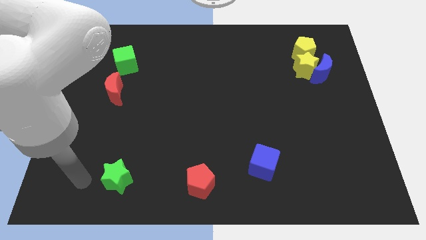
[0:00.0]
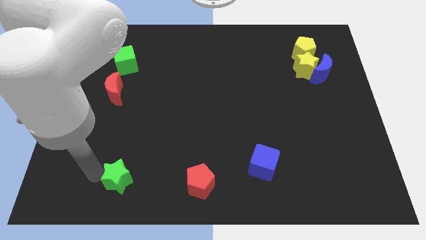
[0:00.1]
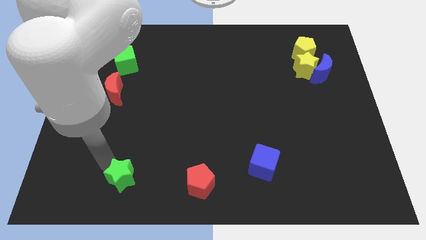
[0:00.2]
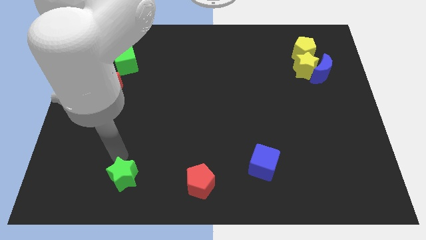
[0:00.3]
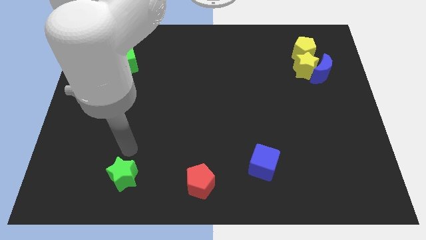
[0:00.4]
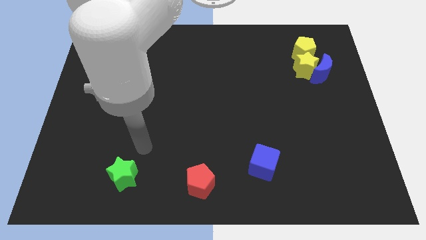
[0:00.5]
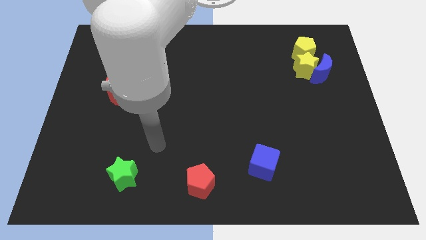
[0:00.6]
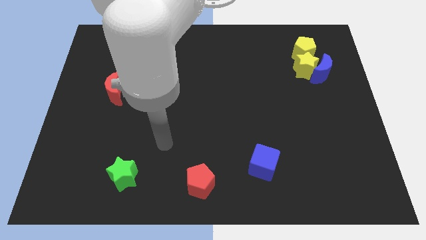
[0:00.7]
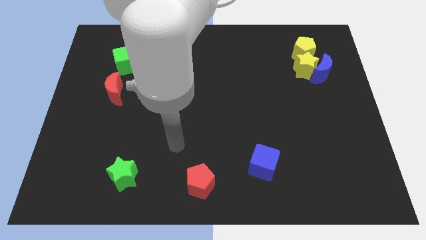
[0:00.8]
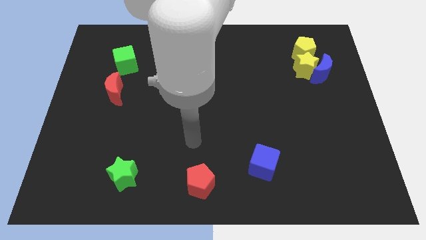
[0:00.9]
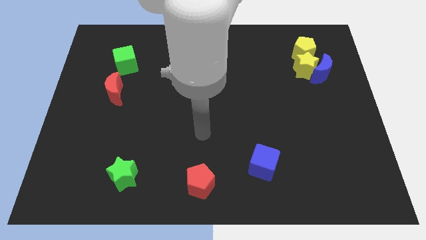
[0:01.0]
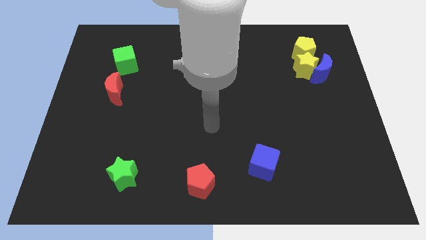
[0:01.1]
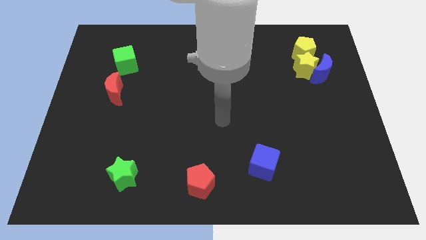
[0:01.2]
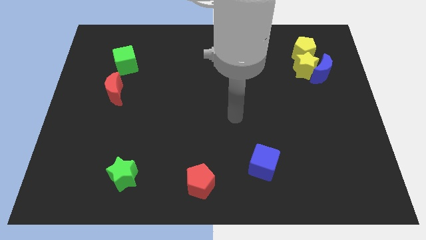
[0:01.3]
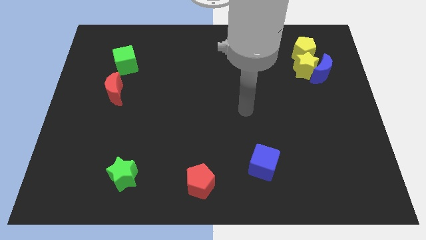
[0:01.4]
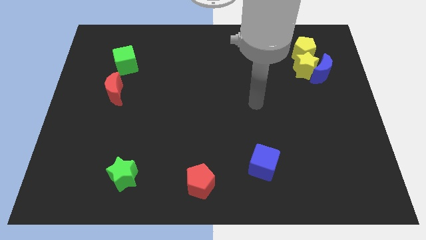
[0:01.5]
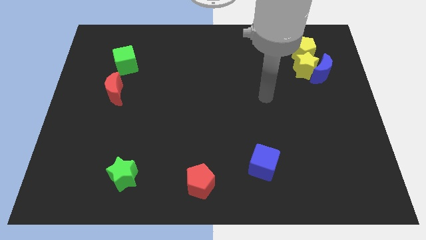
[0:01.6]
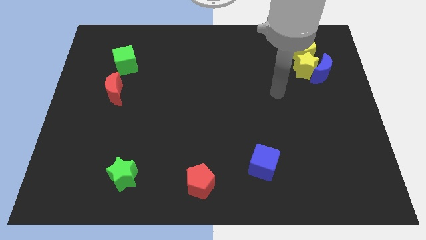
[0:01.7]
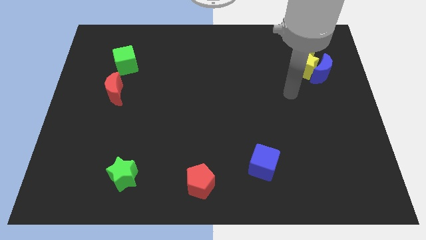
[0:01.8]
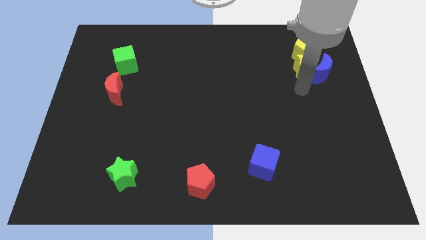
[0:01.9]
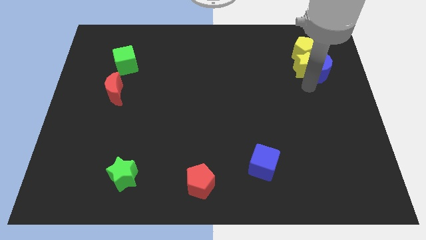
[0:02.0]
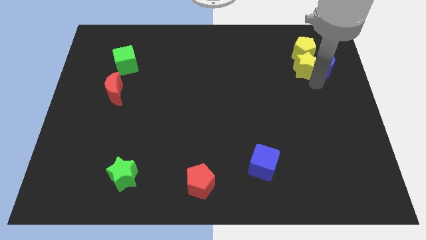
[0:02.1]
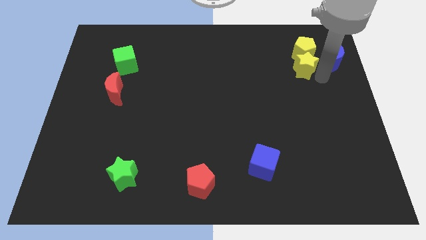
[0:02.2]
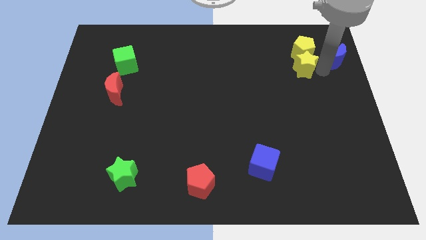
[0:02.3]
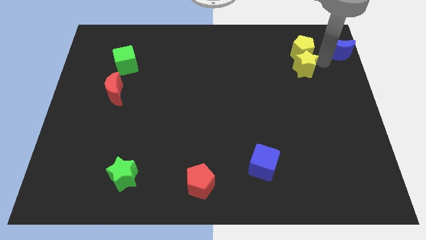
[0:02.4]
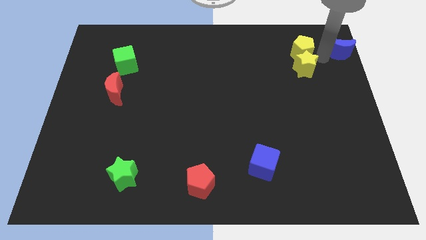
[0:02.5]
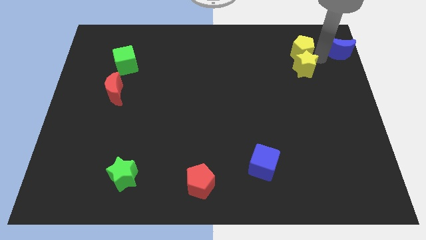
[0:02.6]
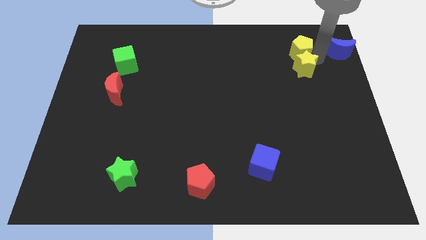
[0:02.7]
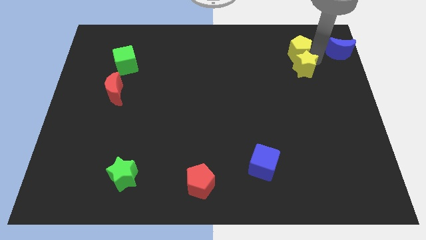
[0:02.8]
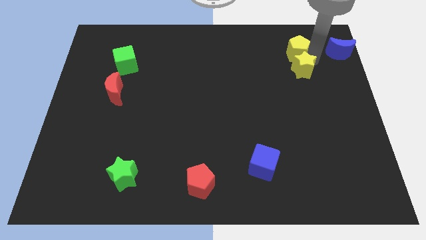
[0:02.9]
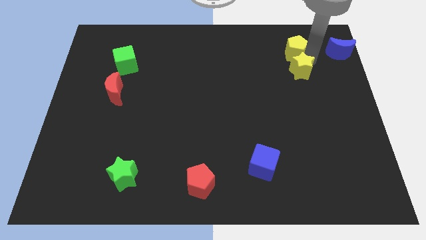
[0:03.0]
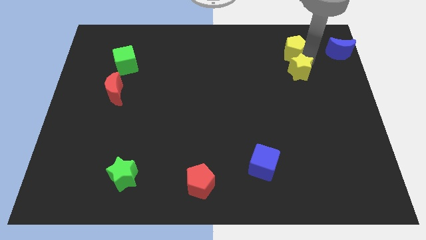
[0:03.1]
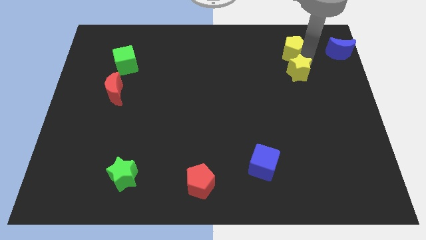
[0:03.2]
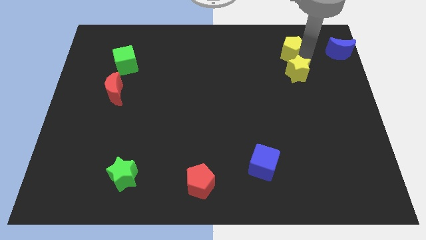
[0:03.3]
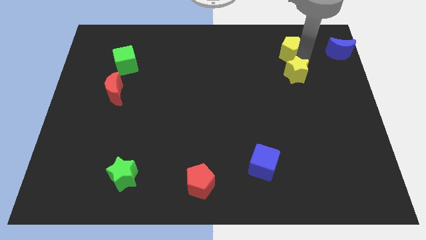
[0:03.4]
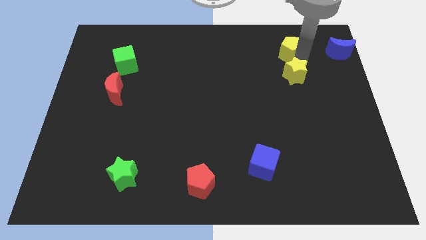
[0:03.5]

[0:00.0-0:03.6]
move the yellow star away from the blue moon and yellow pentagon

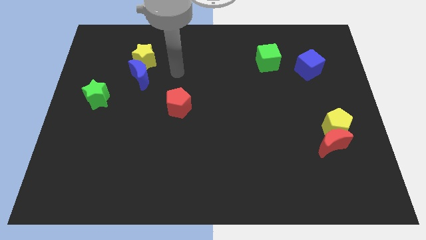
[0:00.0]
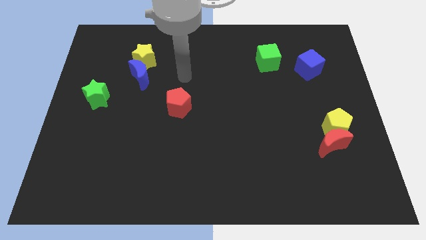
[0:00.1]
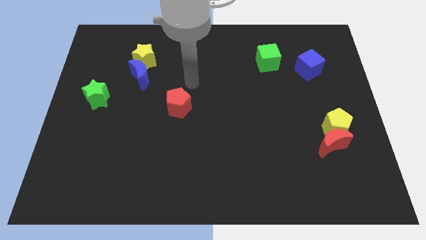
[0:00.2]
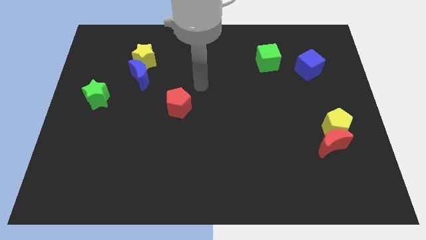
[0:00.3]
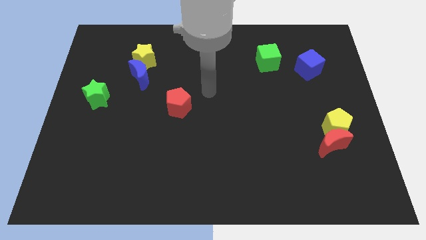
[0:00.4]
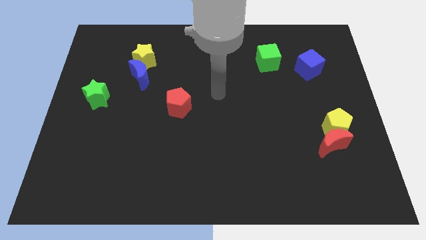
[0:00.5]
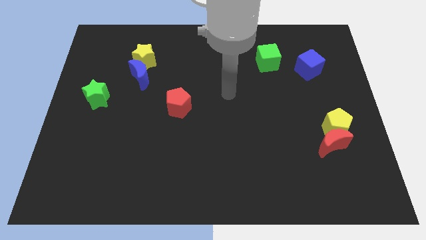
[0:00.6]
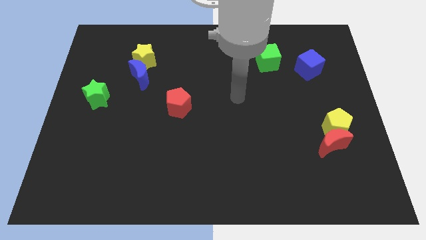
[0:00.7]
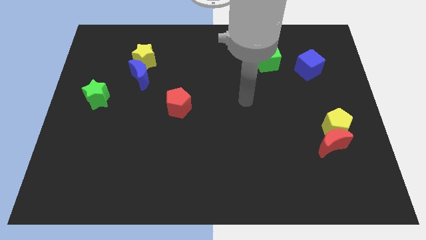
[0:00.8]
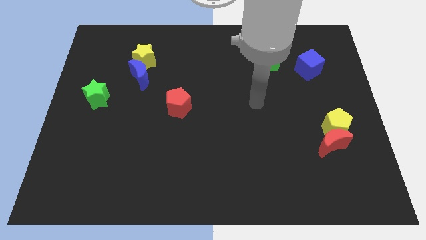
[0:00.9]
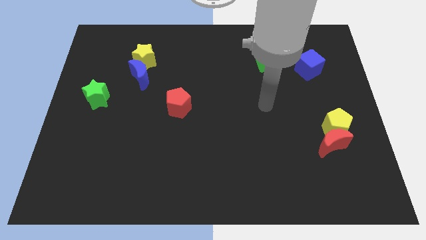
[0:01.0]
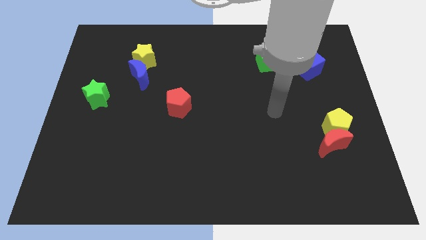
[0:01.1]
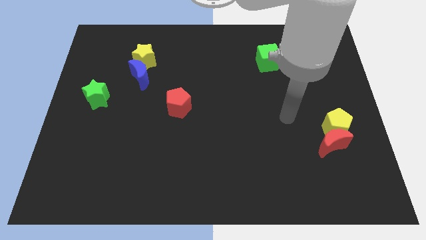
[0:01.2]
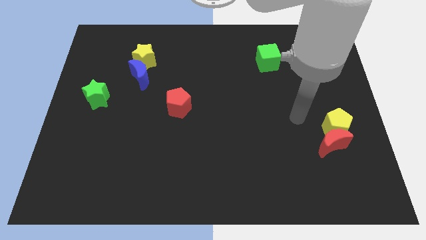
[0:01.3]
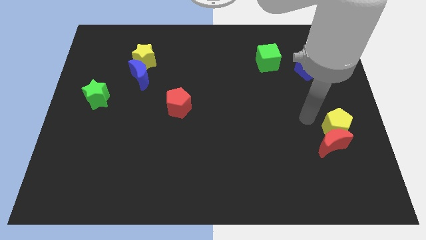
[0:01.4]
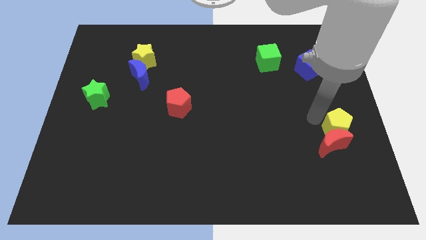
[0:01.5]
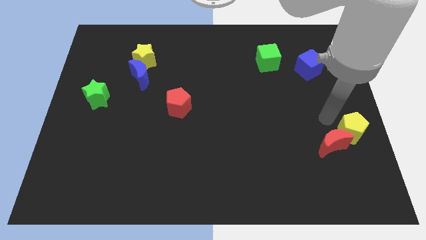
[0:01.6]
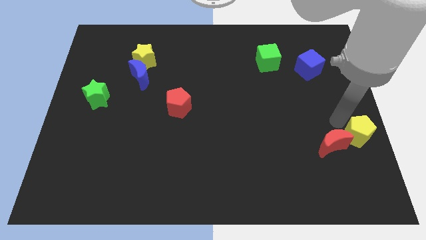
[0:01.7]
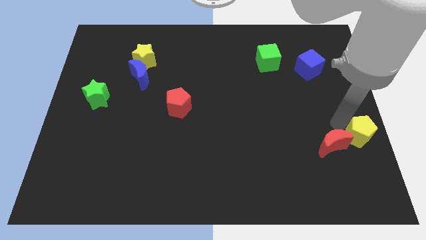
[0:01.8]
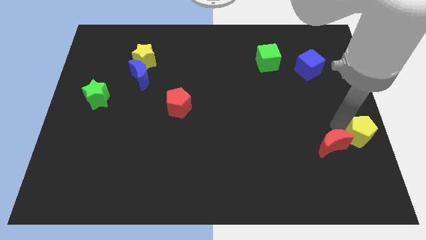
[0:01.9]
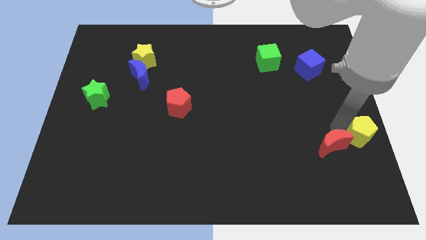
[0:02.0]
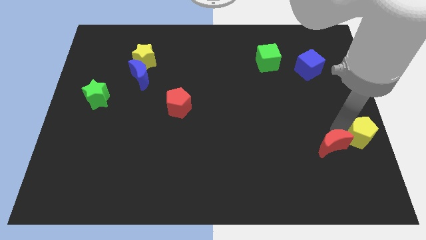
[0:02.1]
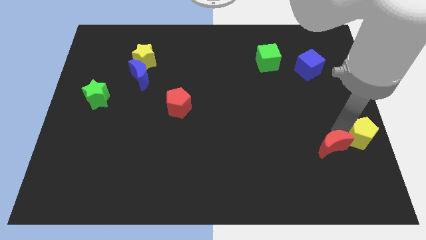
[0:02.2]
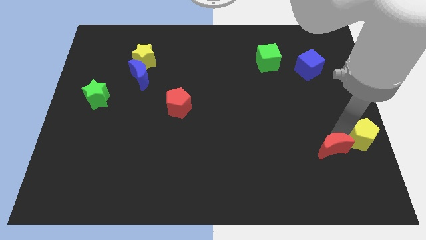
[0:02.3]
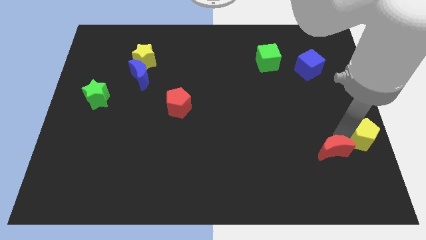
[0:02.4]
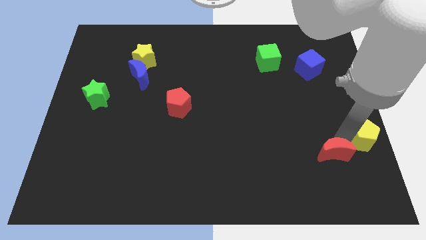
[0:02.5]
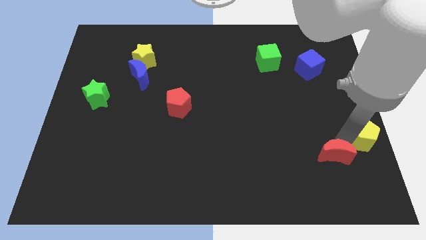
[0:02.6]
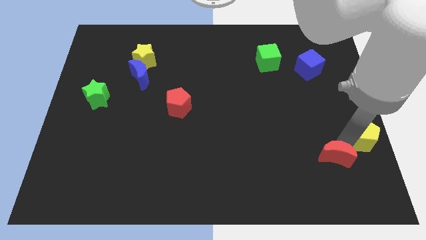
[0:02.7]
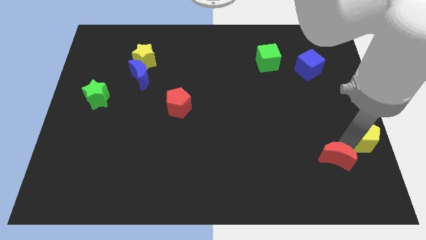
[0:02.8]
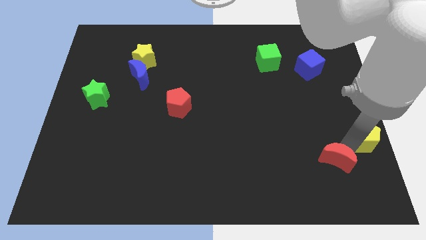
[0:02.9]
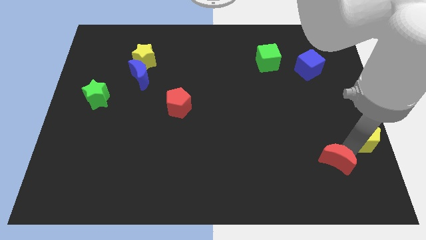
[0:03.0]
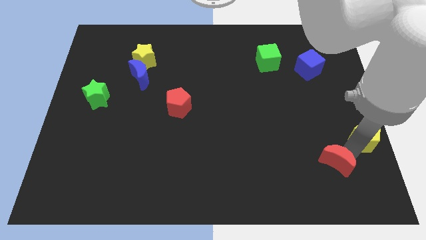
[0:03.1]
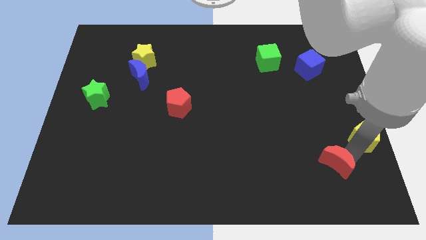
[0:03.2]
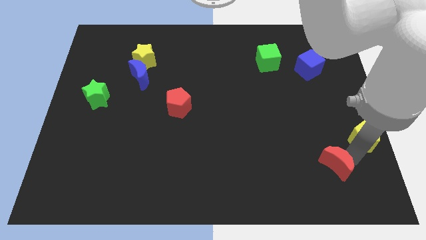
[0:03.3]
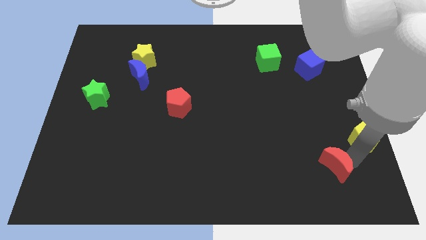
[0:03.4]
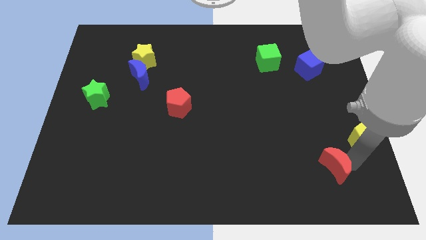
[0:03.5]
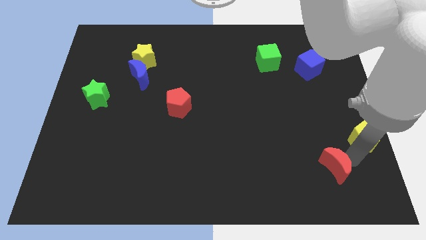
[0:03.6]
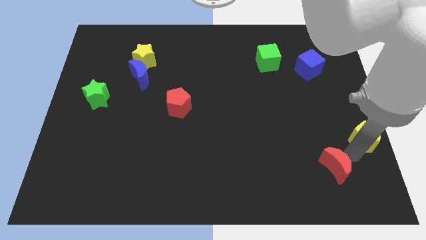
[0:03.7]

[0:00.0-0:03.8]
pull the red moon apart from the yellow pentagon

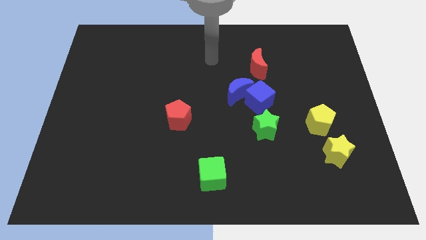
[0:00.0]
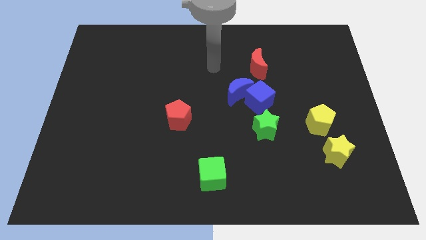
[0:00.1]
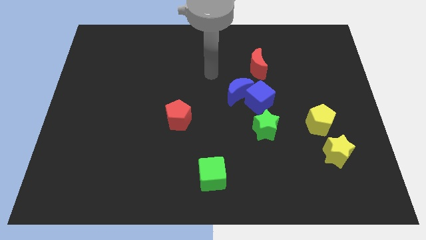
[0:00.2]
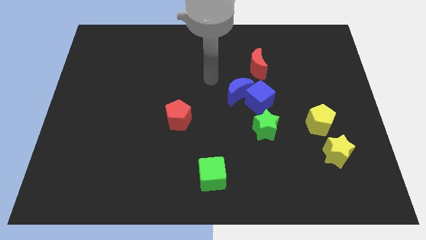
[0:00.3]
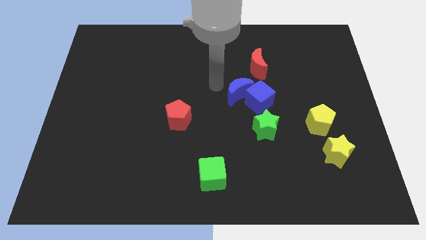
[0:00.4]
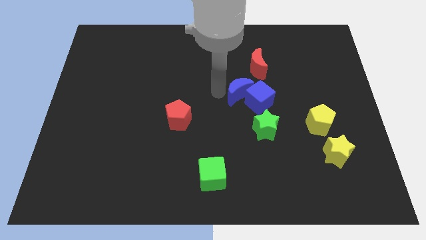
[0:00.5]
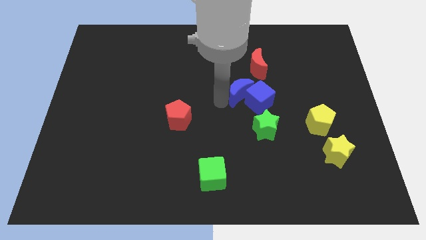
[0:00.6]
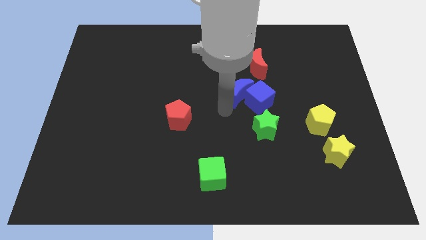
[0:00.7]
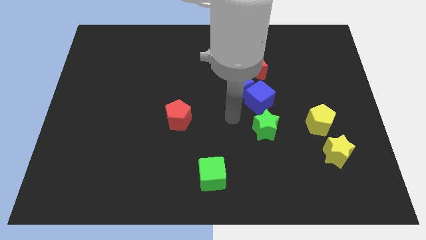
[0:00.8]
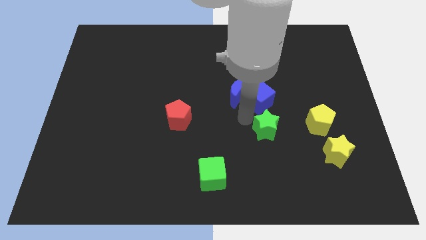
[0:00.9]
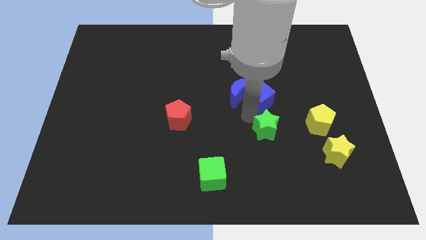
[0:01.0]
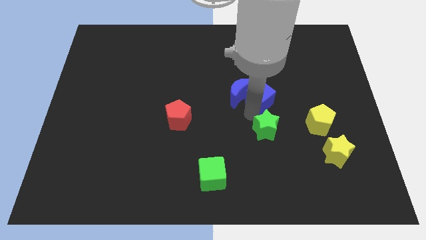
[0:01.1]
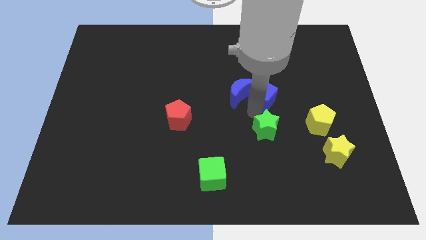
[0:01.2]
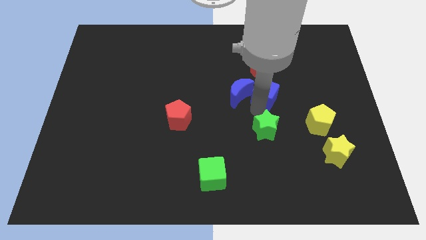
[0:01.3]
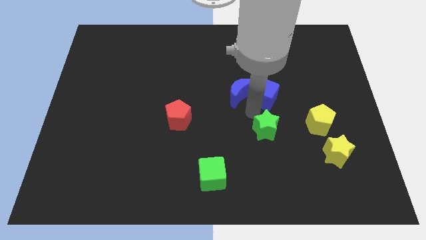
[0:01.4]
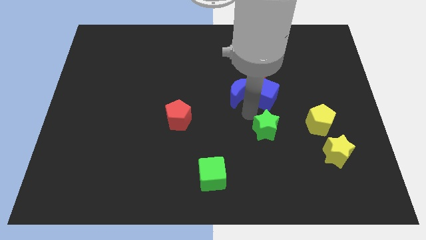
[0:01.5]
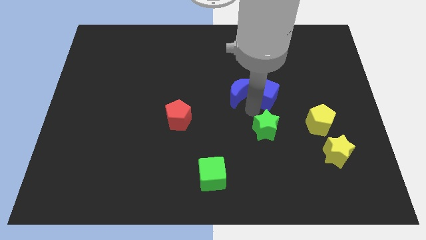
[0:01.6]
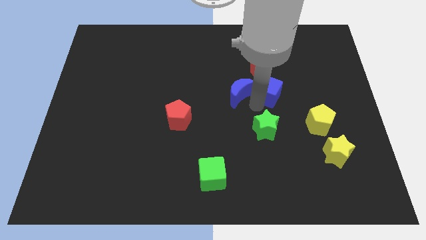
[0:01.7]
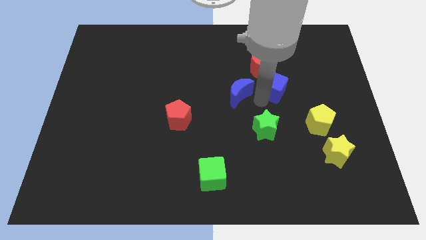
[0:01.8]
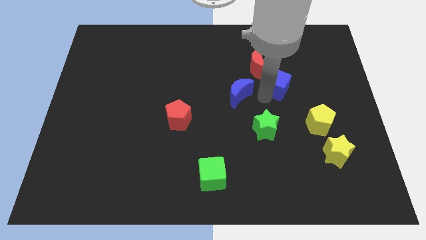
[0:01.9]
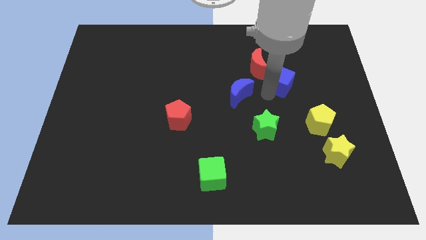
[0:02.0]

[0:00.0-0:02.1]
separate the blue cube from the blue moon and green star
